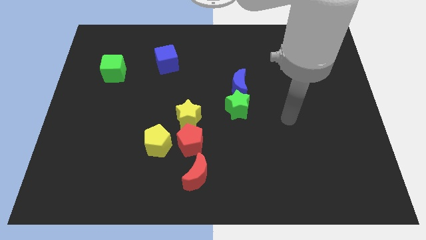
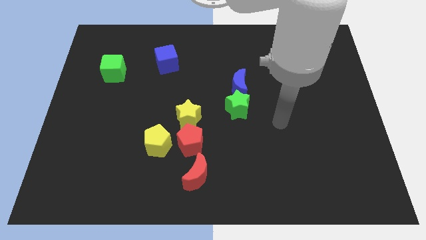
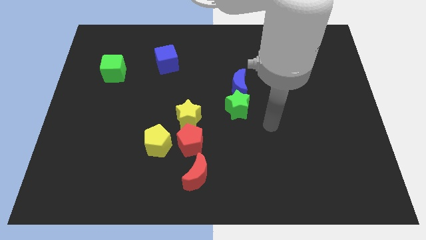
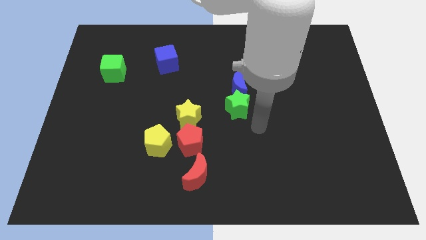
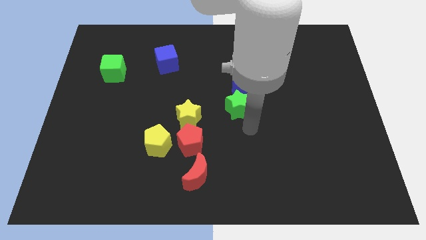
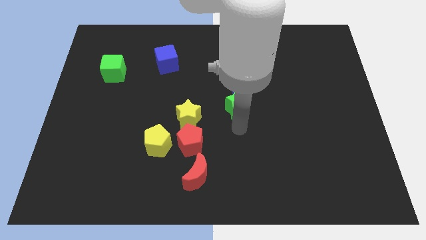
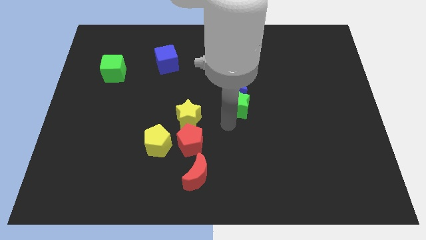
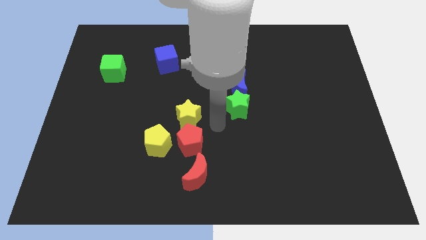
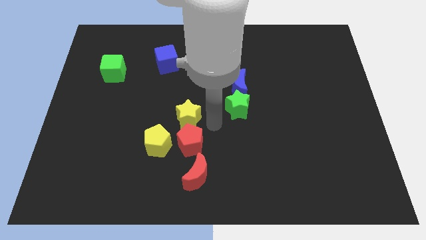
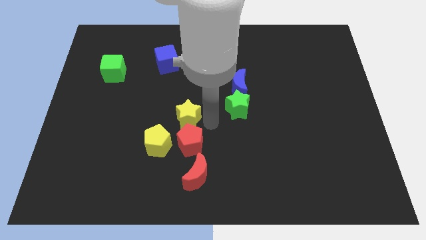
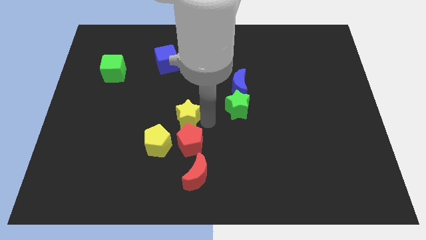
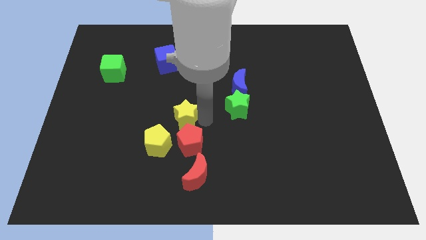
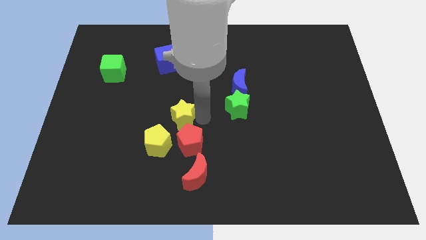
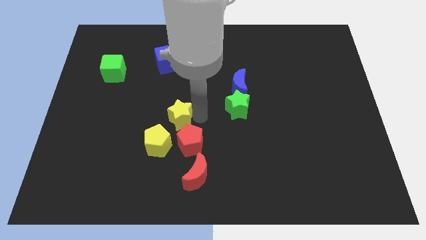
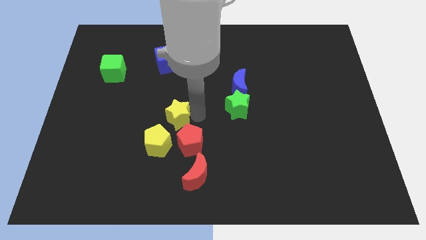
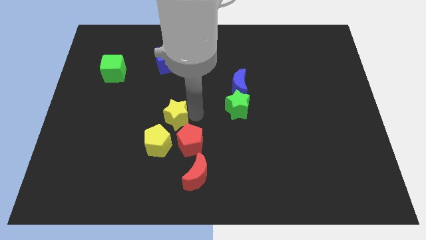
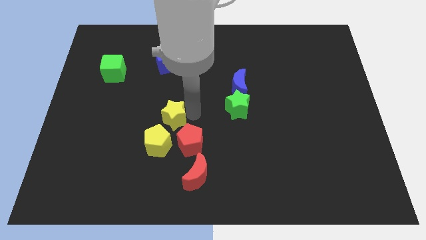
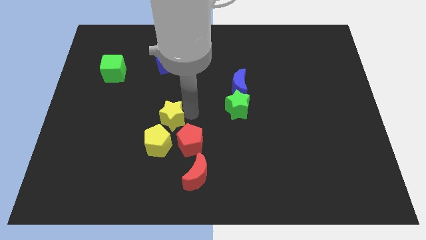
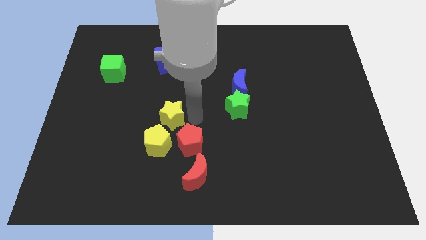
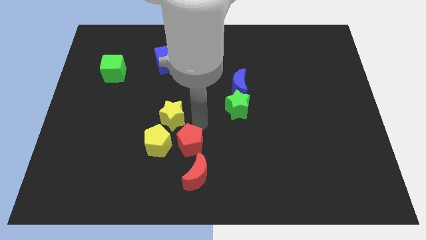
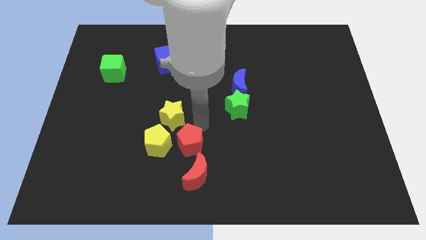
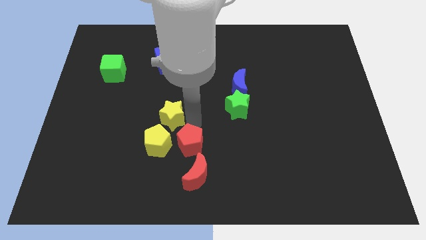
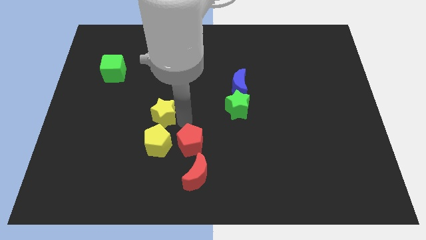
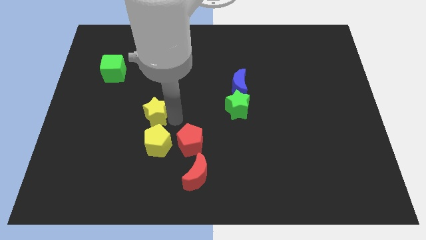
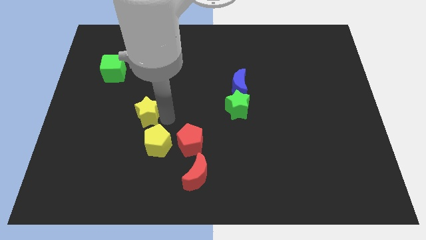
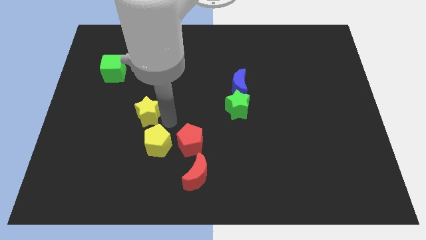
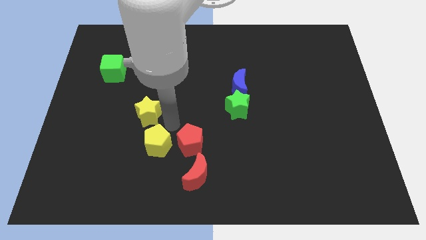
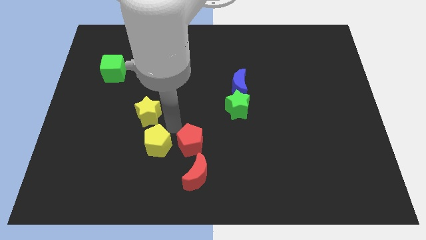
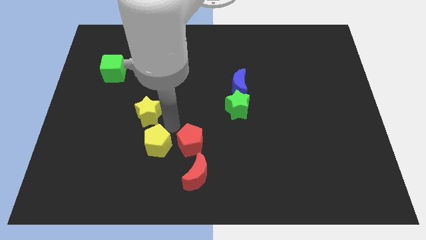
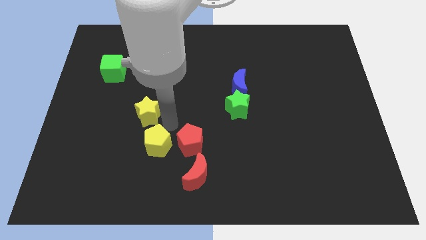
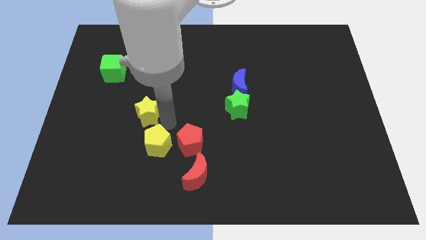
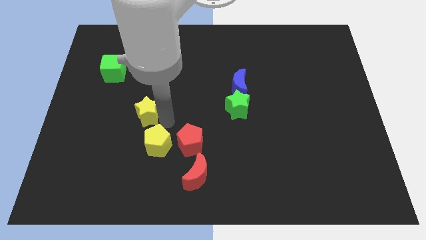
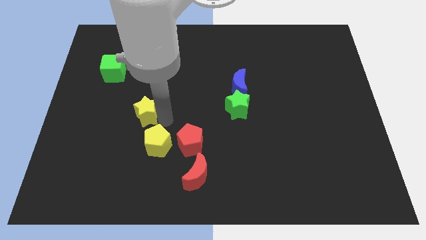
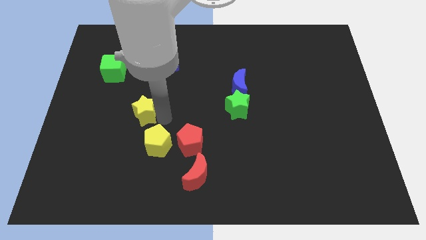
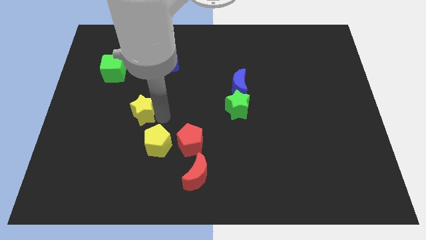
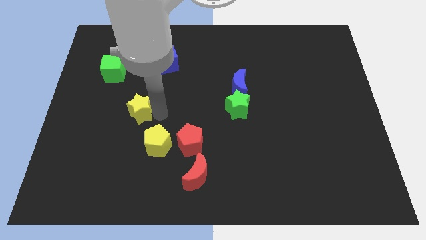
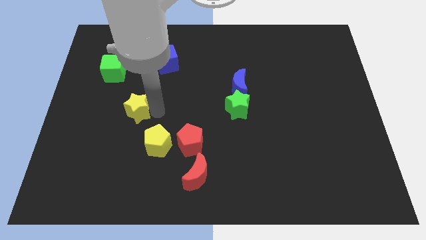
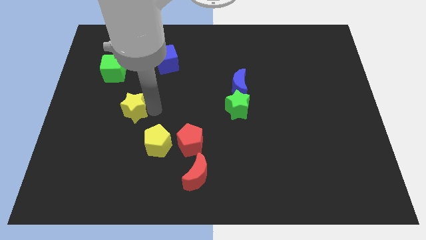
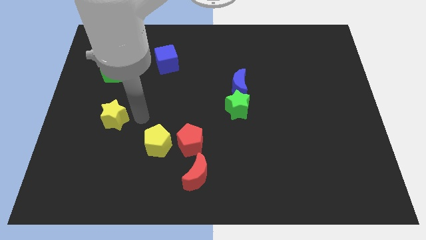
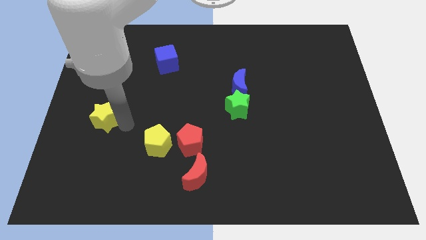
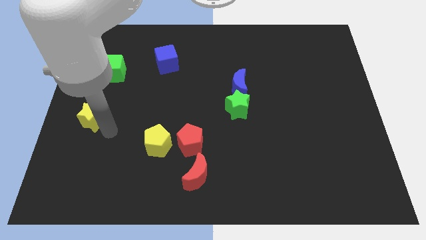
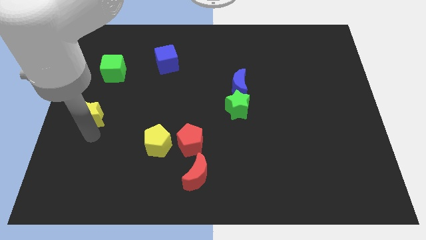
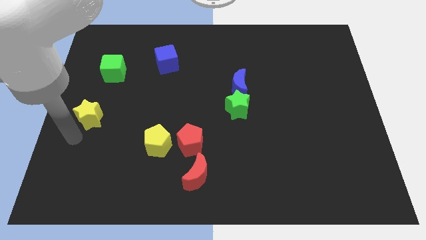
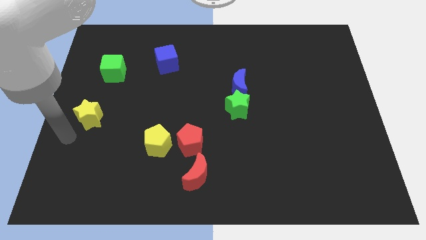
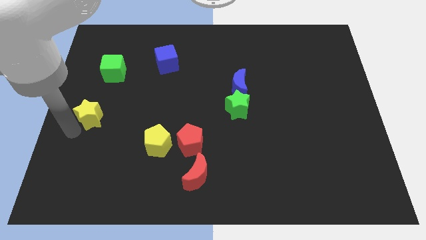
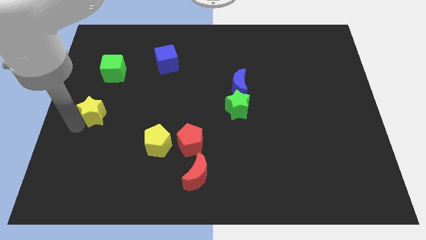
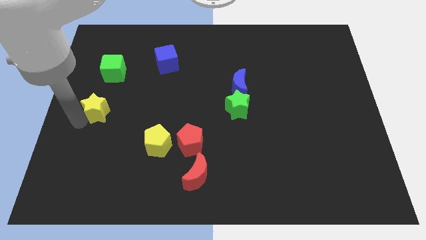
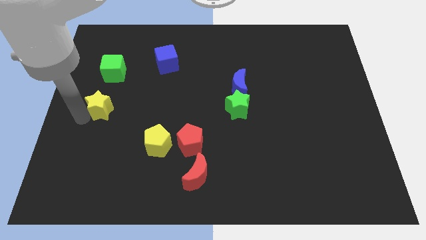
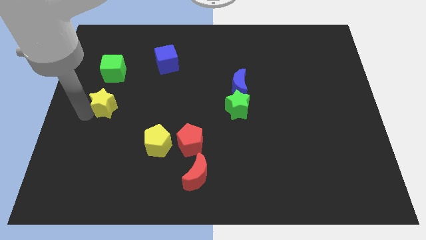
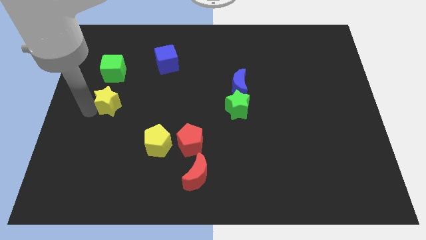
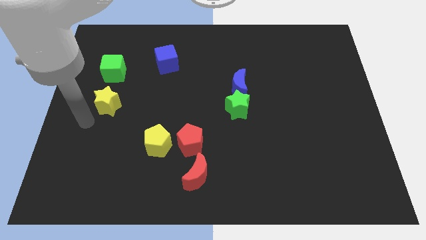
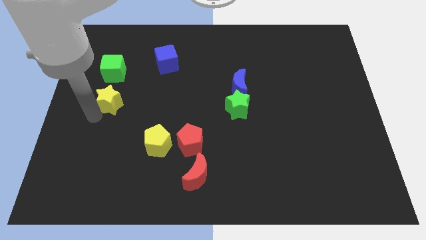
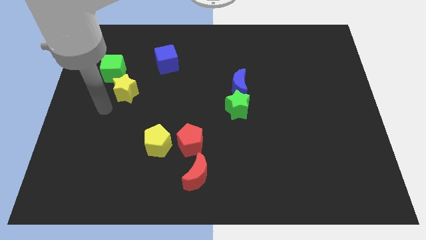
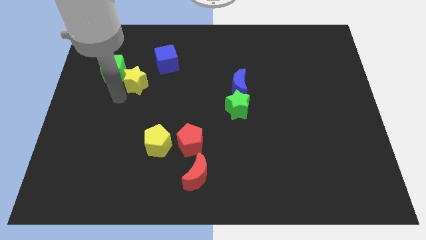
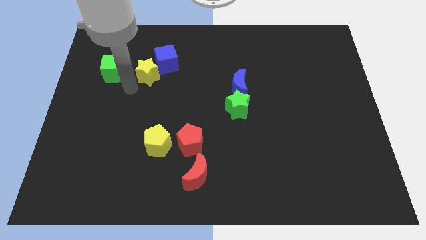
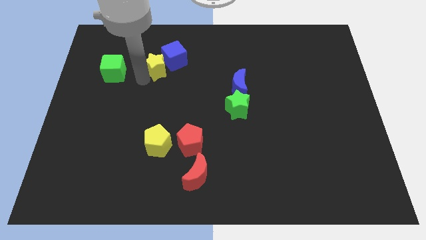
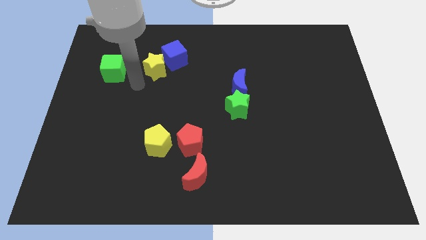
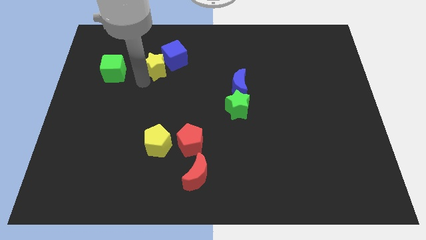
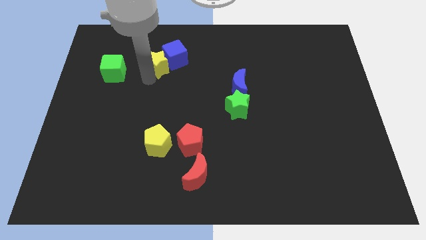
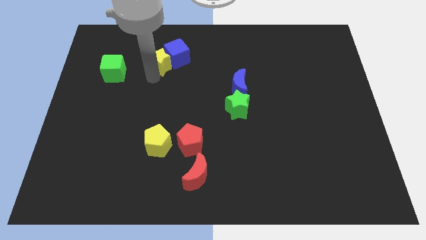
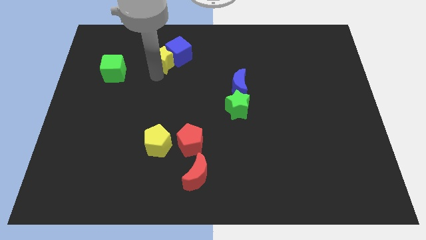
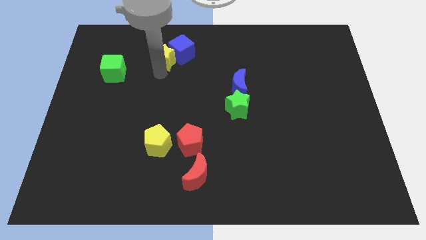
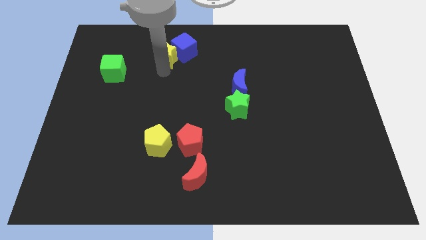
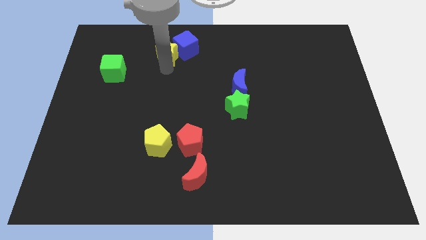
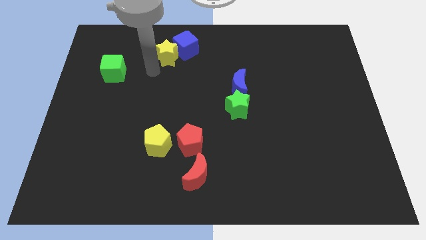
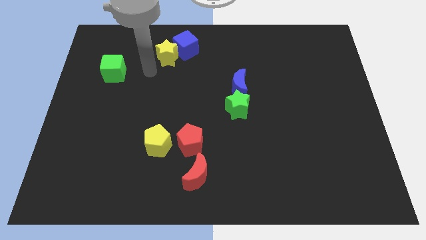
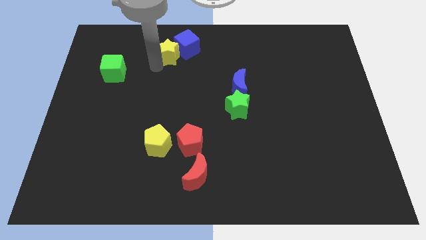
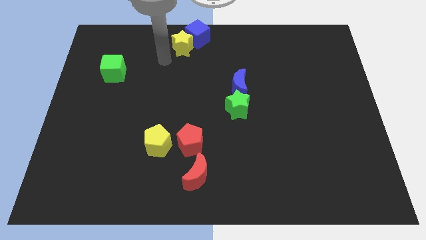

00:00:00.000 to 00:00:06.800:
put the yellow star to the top side
